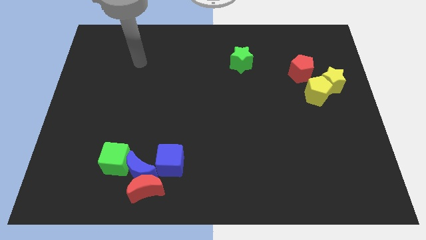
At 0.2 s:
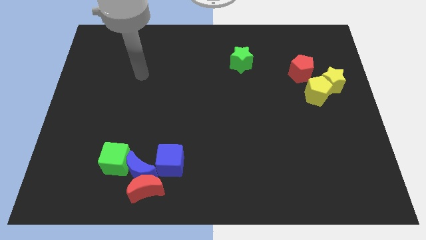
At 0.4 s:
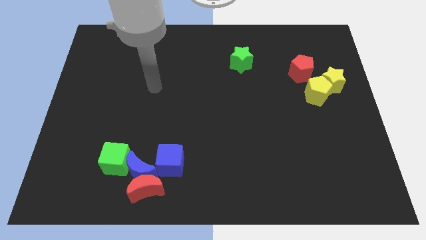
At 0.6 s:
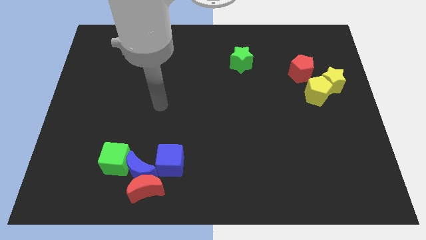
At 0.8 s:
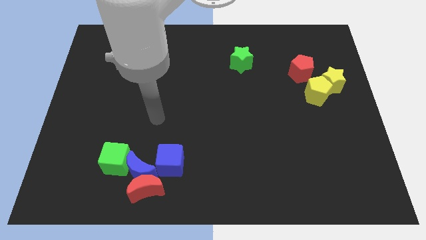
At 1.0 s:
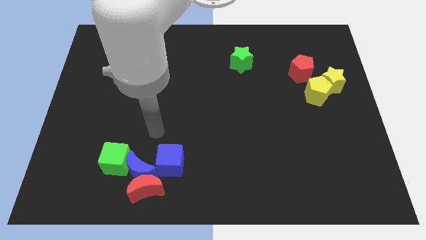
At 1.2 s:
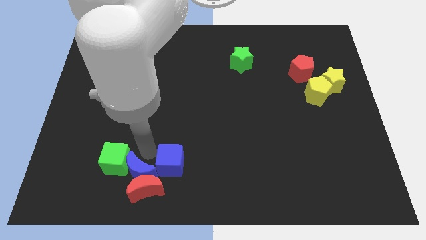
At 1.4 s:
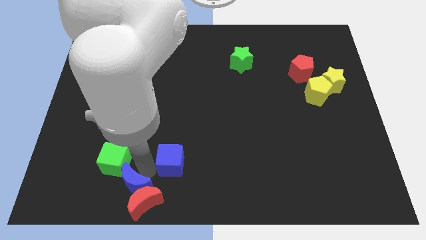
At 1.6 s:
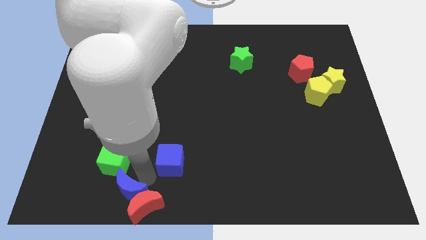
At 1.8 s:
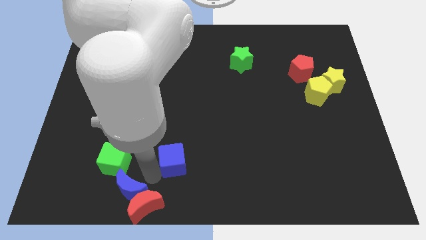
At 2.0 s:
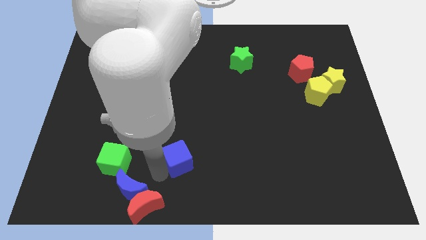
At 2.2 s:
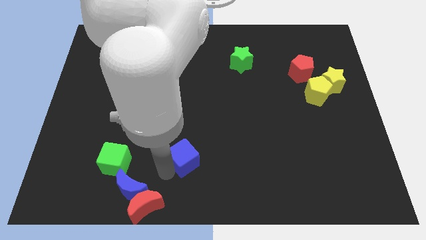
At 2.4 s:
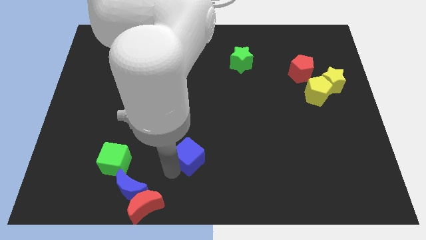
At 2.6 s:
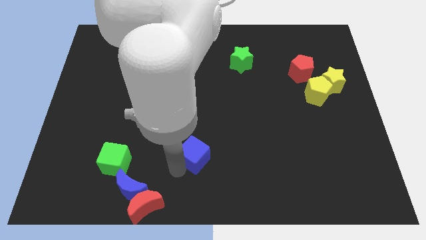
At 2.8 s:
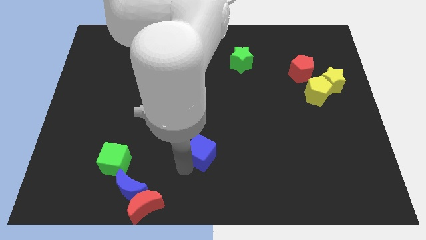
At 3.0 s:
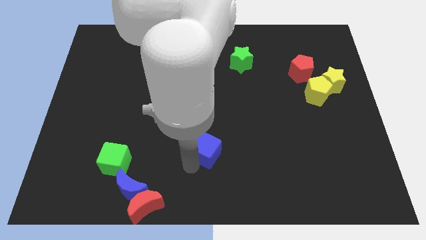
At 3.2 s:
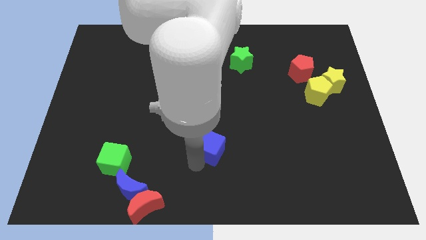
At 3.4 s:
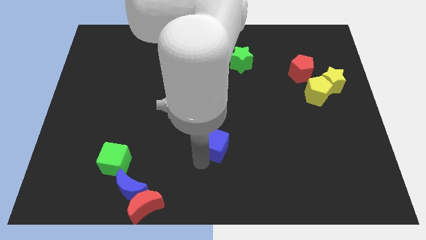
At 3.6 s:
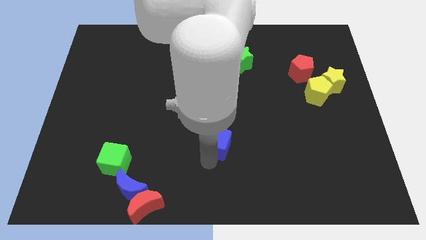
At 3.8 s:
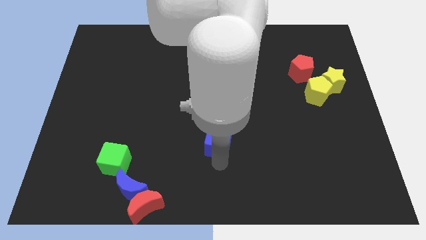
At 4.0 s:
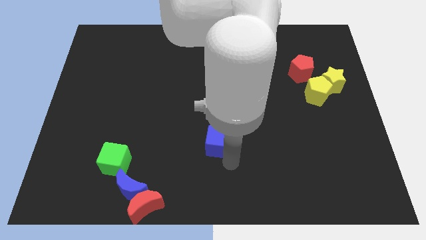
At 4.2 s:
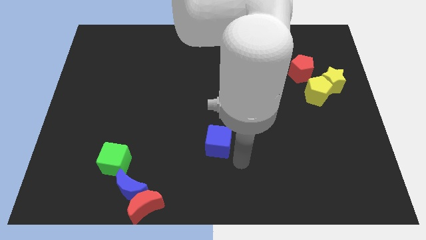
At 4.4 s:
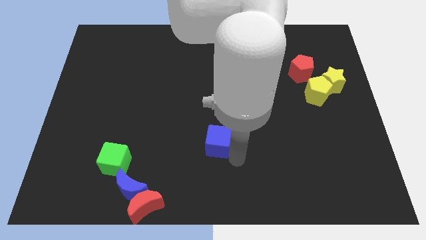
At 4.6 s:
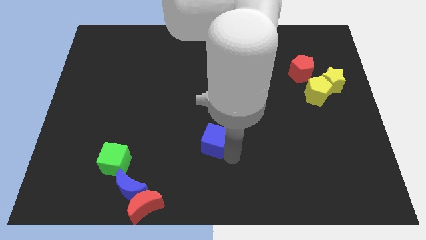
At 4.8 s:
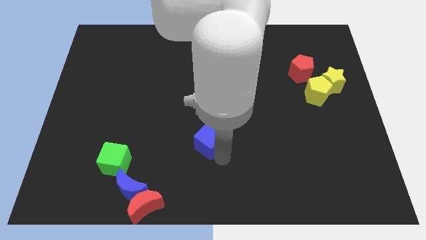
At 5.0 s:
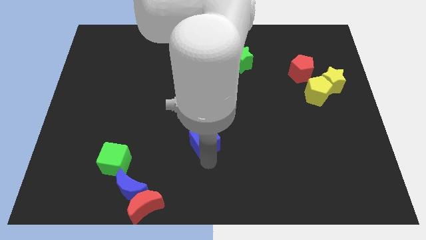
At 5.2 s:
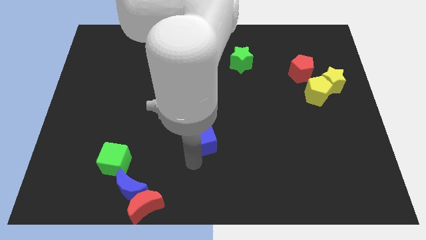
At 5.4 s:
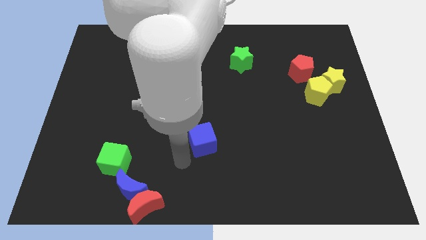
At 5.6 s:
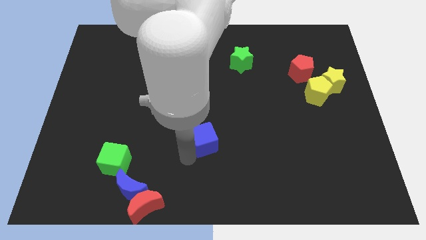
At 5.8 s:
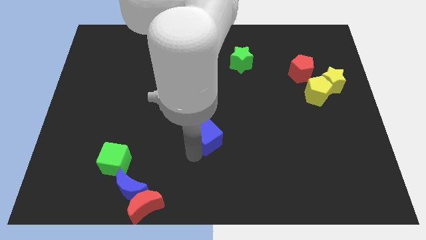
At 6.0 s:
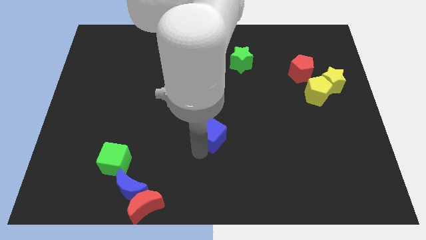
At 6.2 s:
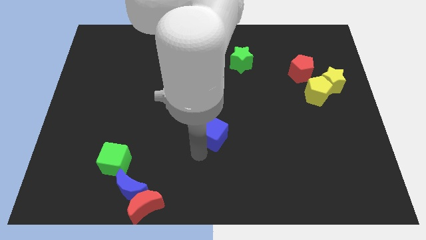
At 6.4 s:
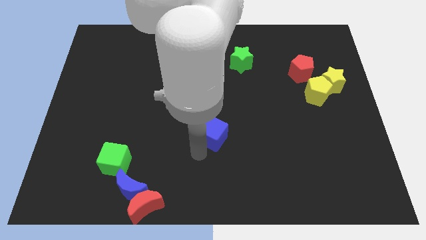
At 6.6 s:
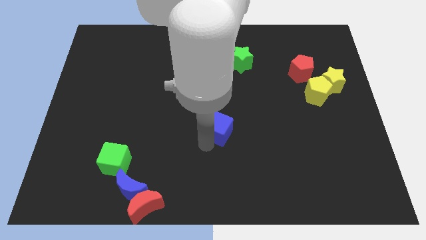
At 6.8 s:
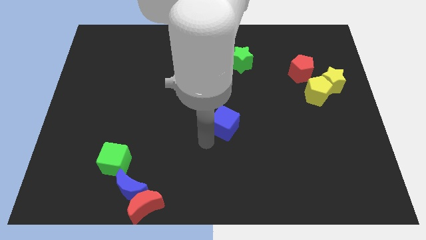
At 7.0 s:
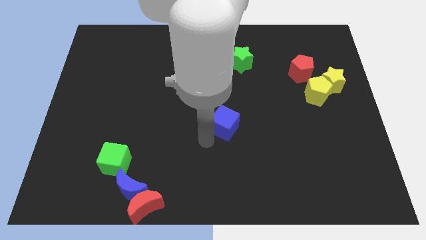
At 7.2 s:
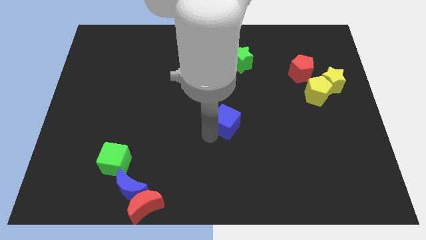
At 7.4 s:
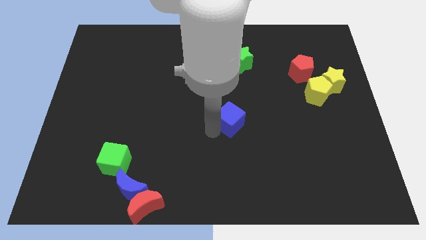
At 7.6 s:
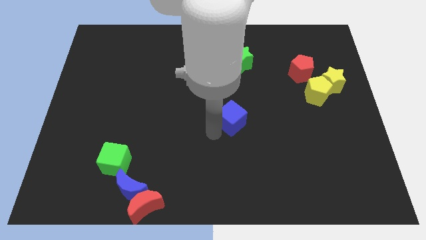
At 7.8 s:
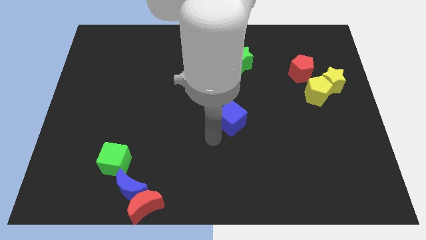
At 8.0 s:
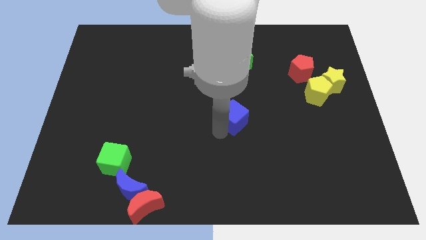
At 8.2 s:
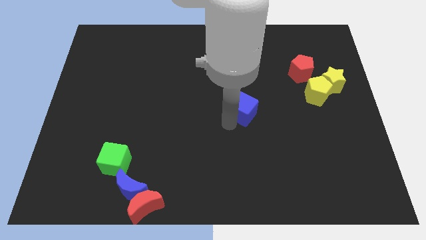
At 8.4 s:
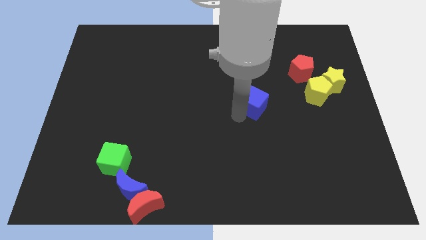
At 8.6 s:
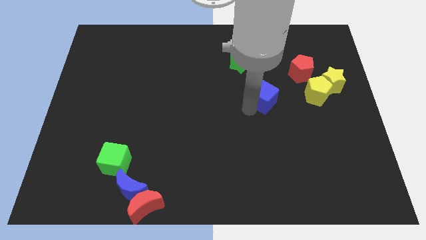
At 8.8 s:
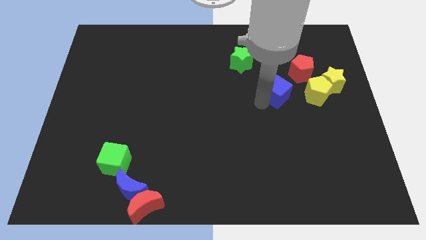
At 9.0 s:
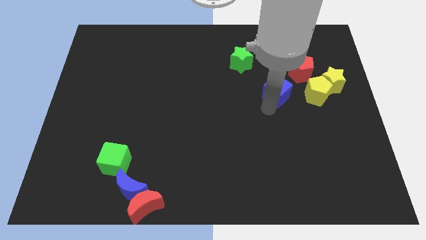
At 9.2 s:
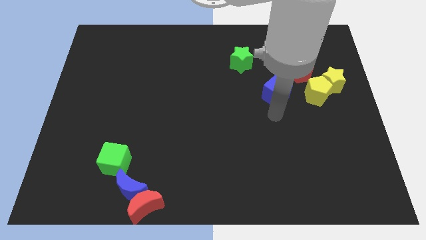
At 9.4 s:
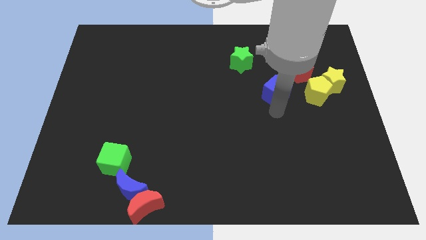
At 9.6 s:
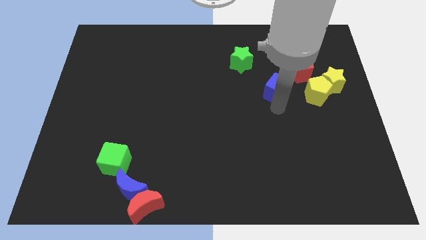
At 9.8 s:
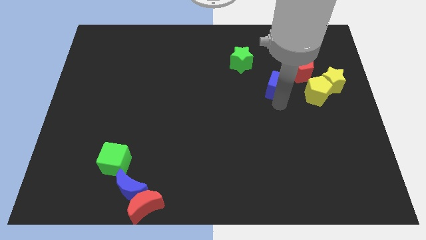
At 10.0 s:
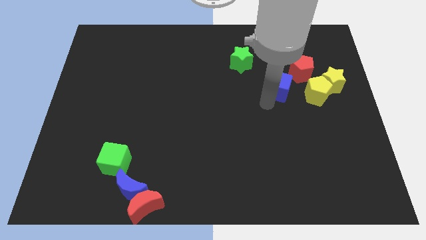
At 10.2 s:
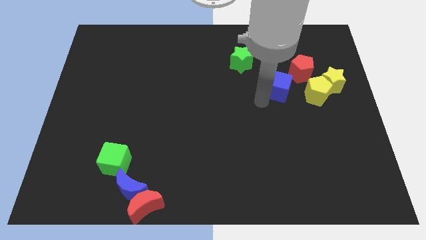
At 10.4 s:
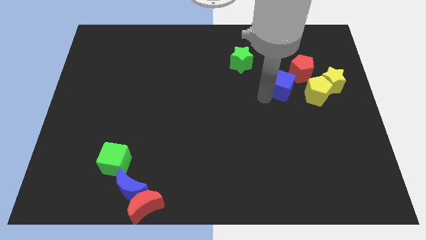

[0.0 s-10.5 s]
put the blue cube diagonally up and to the left of the yellow pentagon

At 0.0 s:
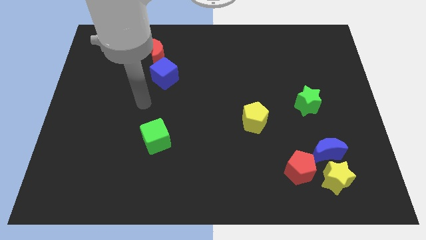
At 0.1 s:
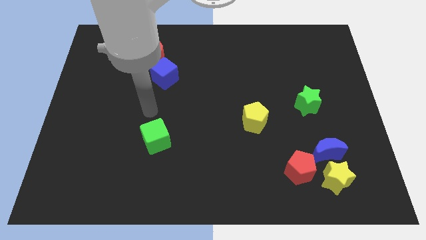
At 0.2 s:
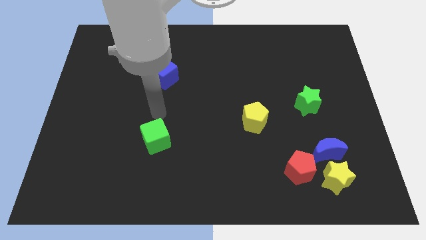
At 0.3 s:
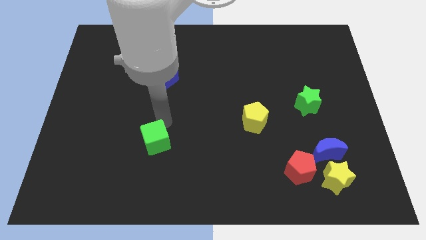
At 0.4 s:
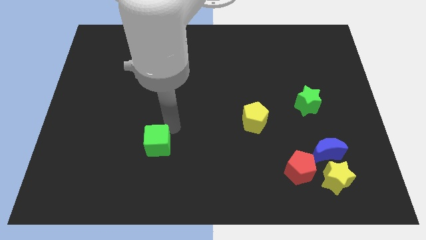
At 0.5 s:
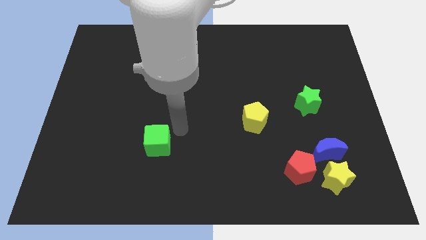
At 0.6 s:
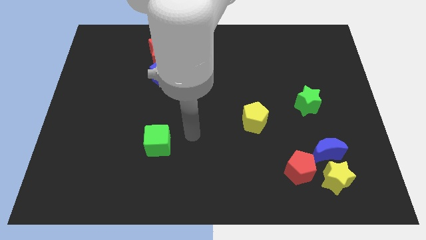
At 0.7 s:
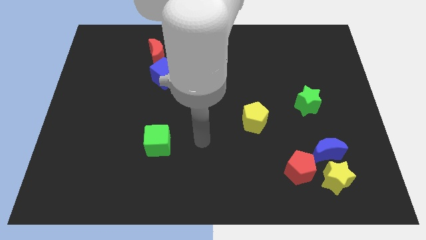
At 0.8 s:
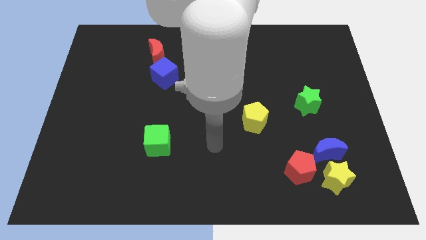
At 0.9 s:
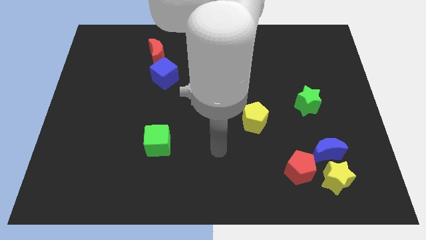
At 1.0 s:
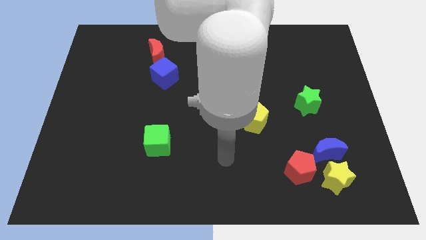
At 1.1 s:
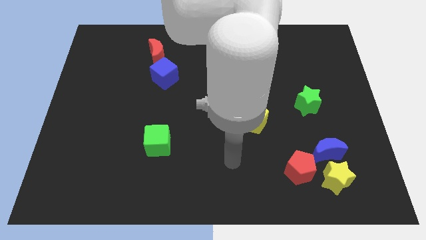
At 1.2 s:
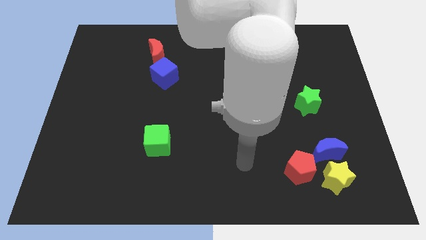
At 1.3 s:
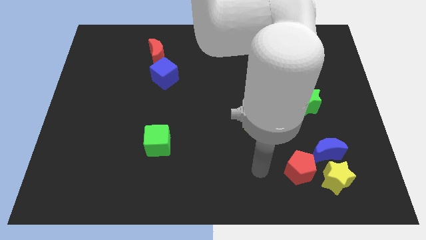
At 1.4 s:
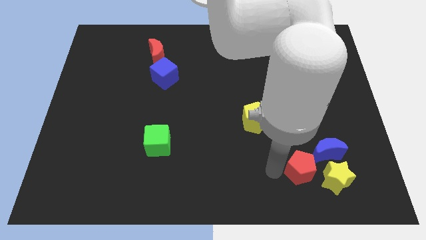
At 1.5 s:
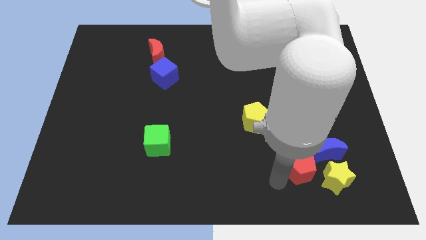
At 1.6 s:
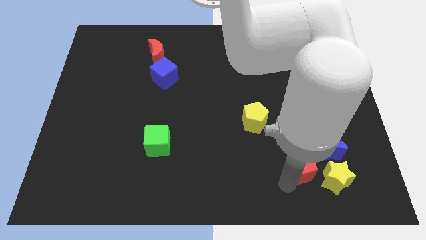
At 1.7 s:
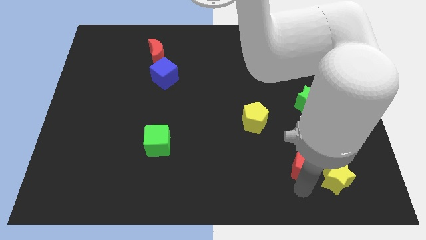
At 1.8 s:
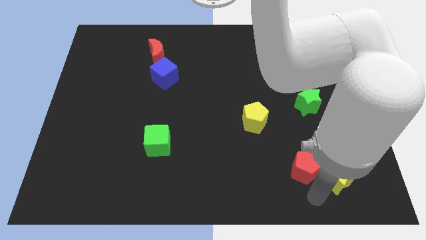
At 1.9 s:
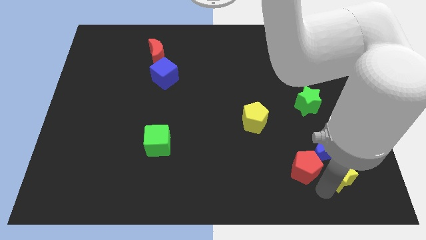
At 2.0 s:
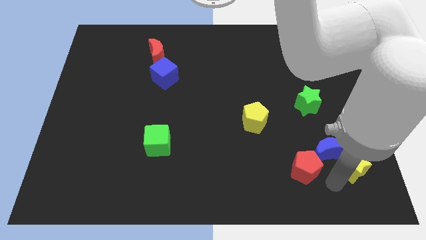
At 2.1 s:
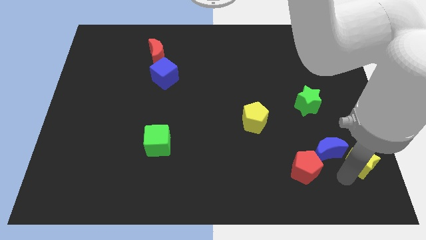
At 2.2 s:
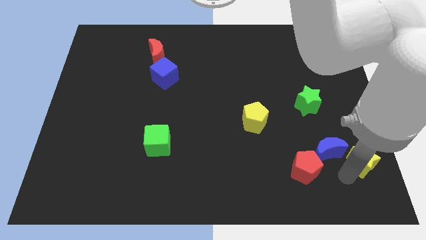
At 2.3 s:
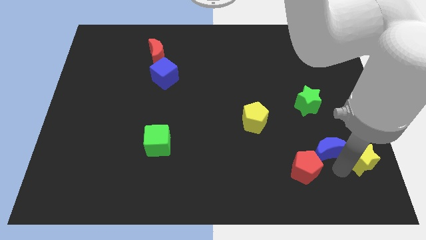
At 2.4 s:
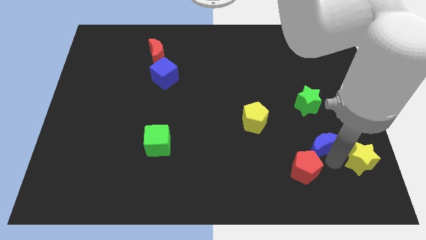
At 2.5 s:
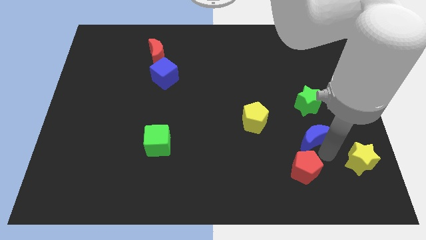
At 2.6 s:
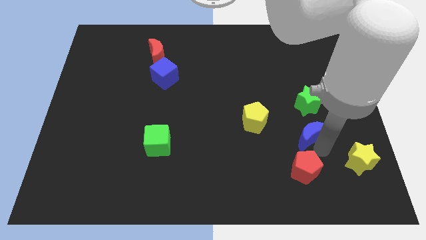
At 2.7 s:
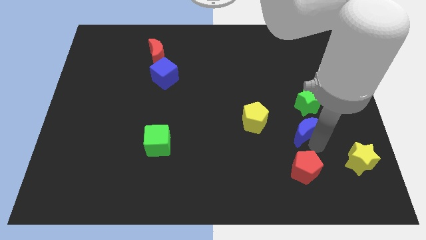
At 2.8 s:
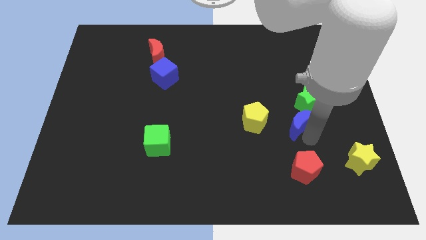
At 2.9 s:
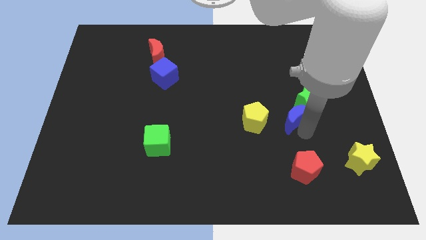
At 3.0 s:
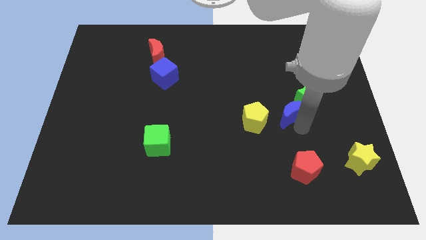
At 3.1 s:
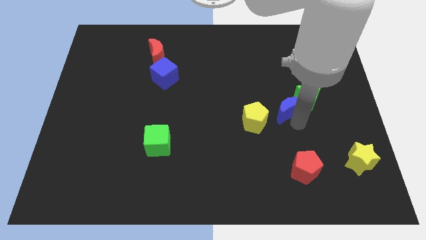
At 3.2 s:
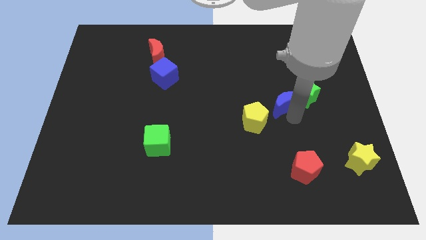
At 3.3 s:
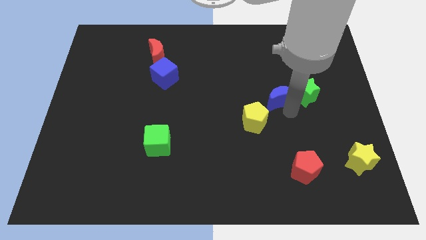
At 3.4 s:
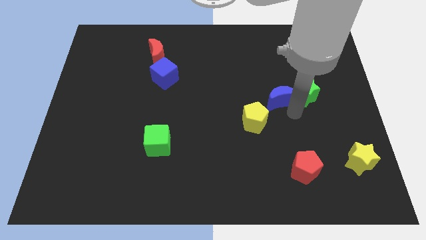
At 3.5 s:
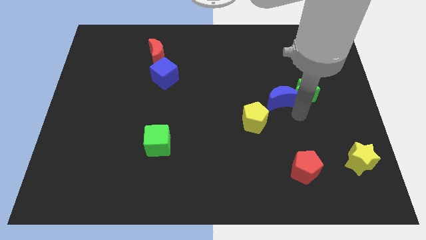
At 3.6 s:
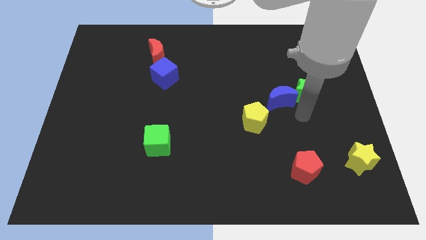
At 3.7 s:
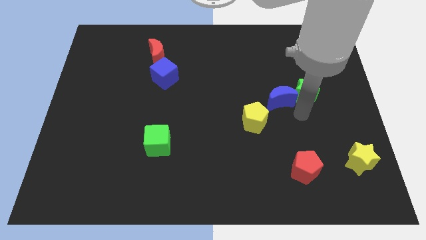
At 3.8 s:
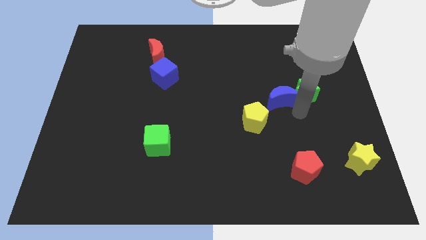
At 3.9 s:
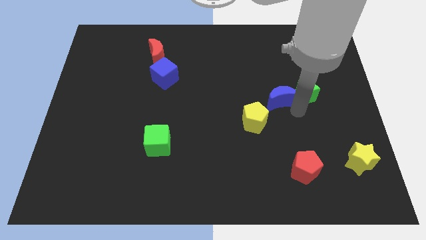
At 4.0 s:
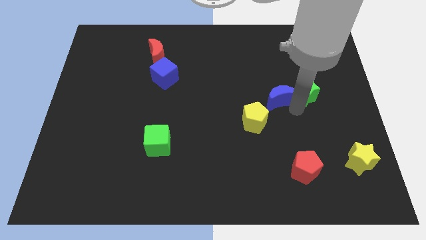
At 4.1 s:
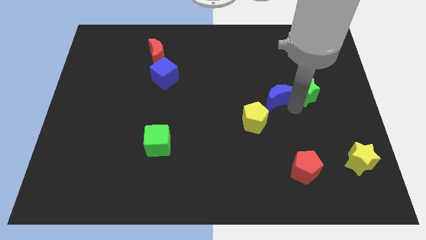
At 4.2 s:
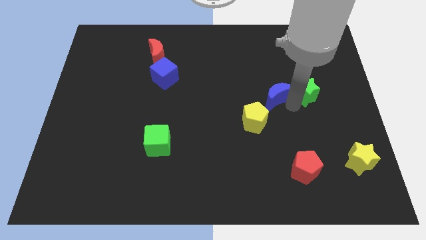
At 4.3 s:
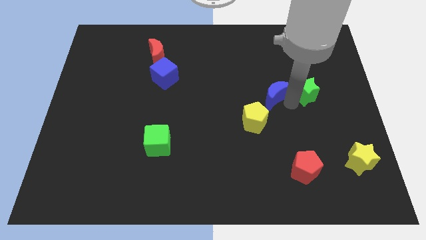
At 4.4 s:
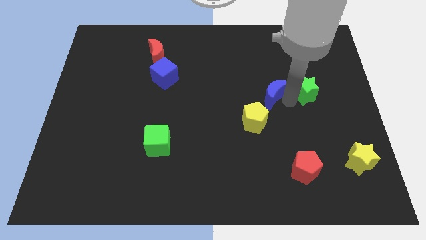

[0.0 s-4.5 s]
move the blue moon above the yellow pentagon
